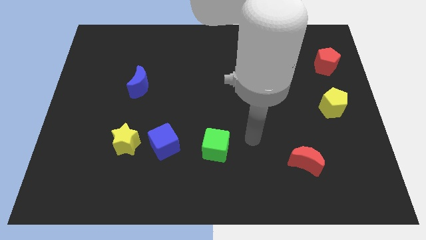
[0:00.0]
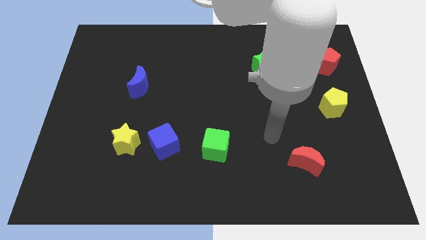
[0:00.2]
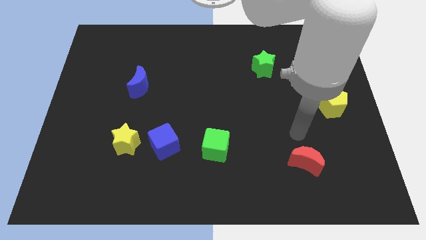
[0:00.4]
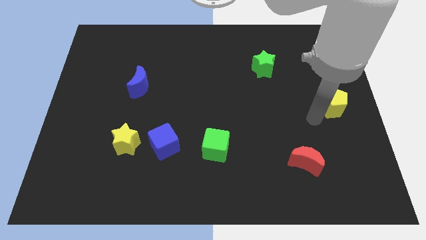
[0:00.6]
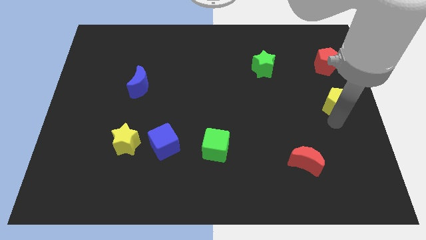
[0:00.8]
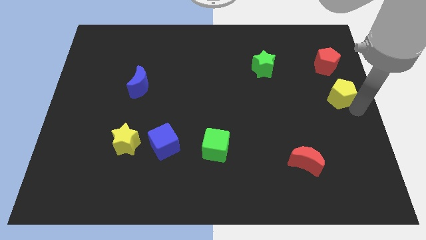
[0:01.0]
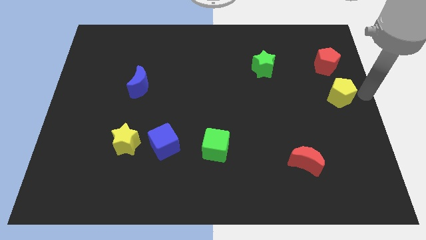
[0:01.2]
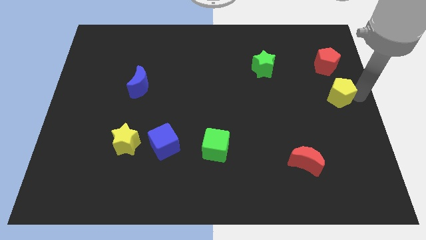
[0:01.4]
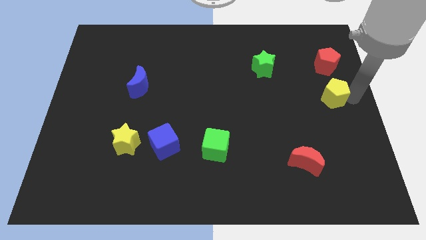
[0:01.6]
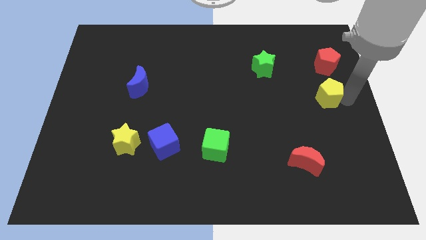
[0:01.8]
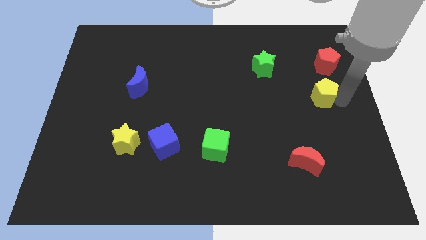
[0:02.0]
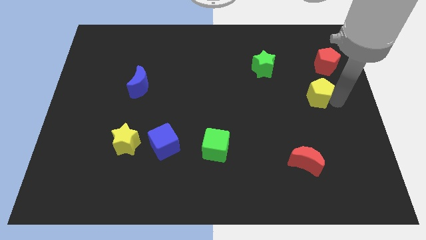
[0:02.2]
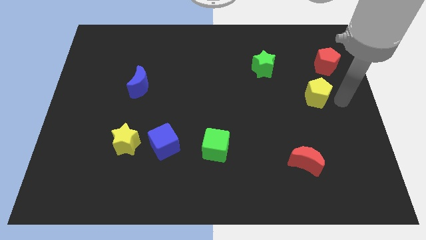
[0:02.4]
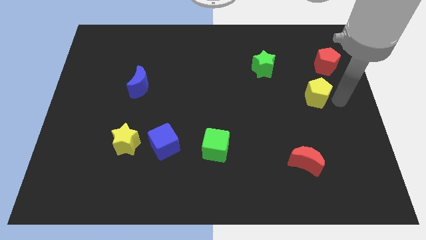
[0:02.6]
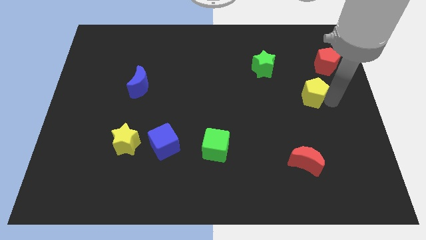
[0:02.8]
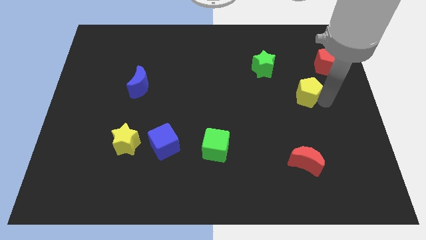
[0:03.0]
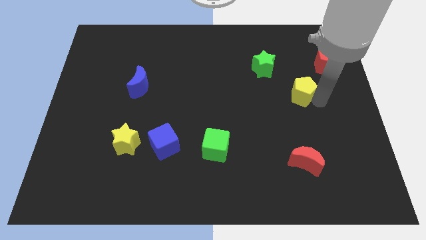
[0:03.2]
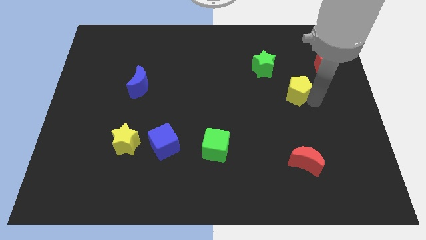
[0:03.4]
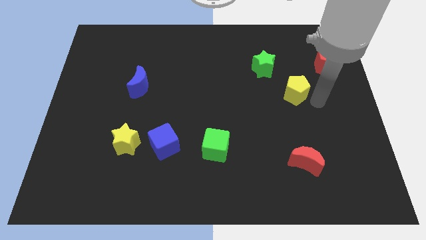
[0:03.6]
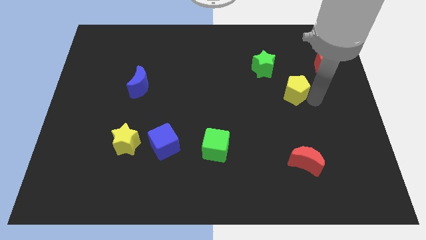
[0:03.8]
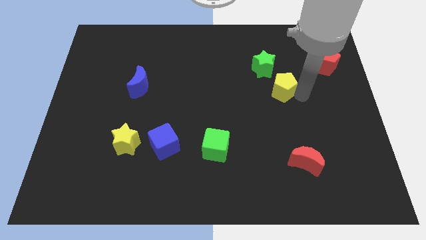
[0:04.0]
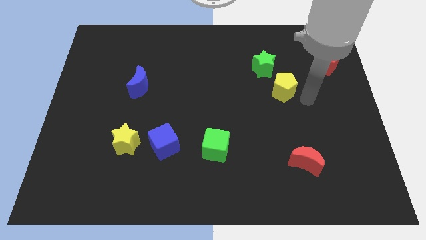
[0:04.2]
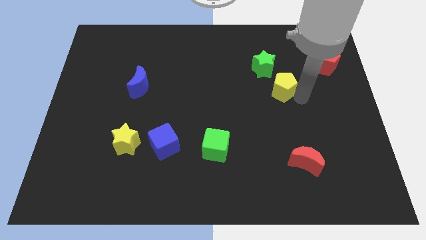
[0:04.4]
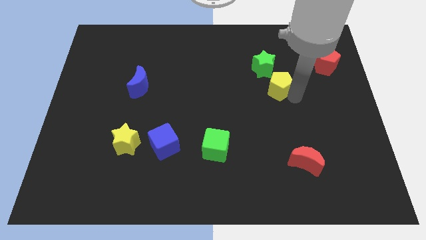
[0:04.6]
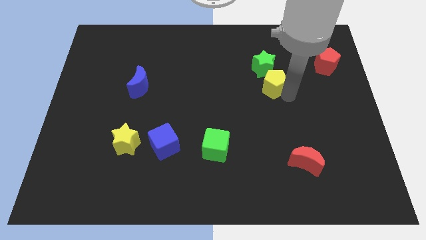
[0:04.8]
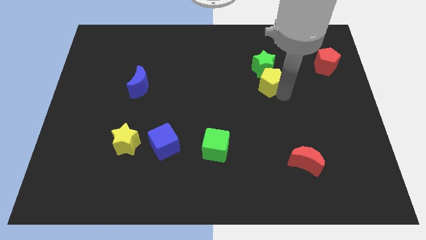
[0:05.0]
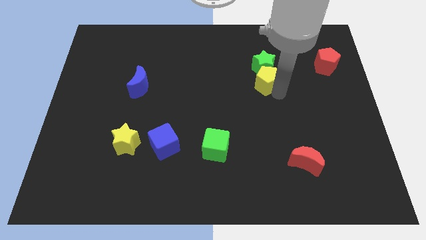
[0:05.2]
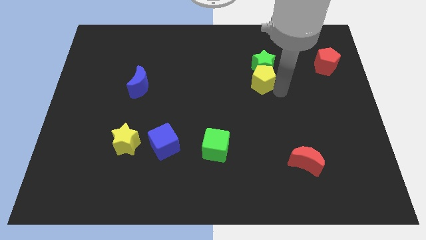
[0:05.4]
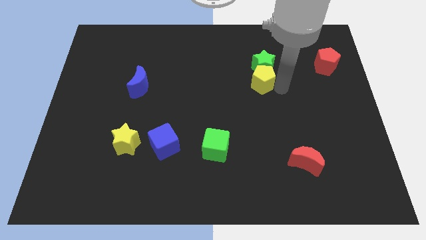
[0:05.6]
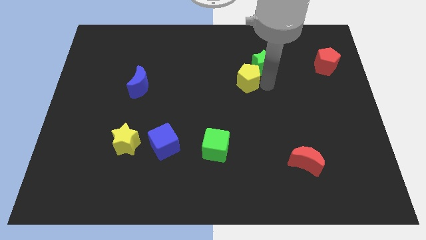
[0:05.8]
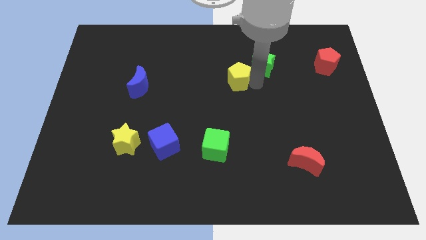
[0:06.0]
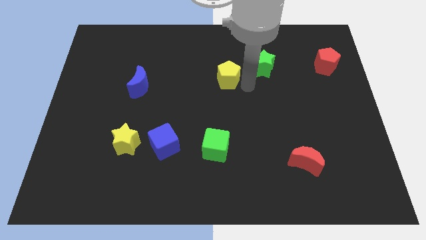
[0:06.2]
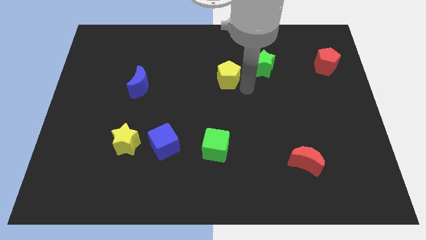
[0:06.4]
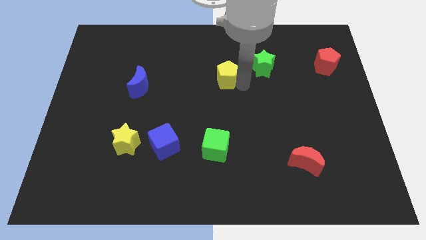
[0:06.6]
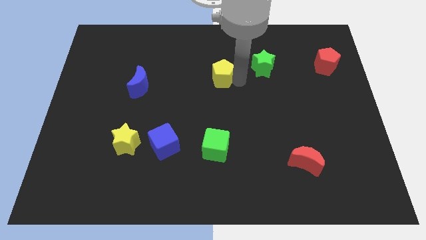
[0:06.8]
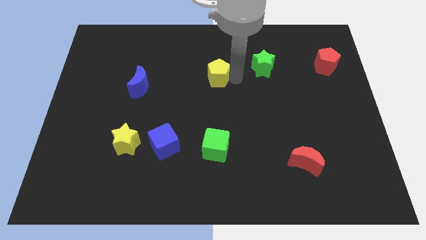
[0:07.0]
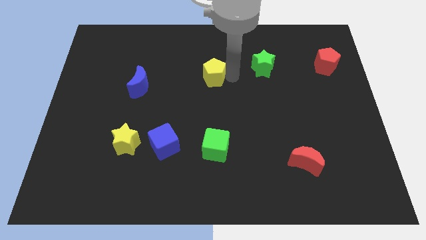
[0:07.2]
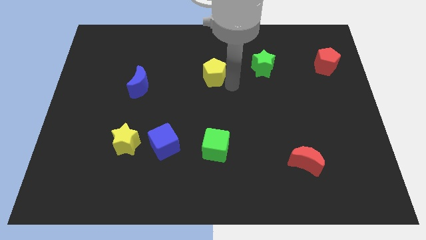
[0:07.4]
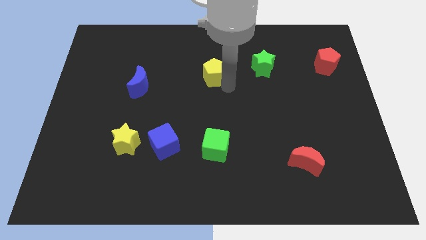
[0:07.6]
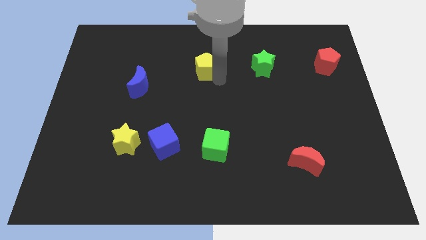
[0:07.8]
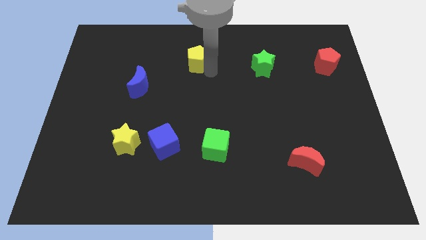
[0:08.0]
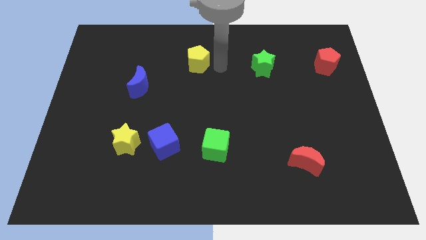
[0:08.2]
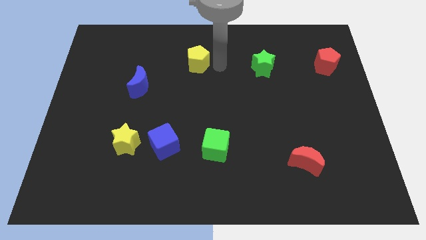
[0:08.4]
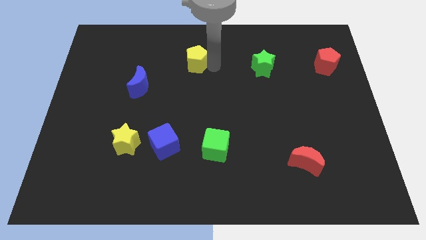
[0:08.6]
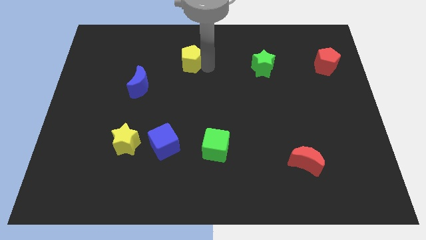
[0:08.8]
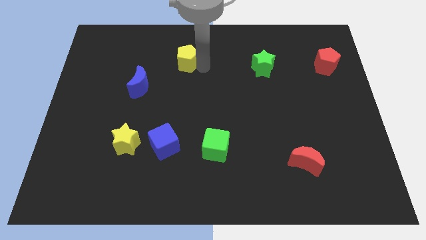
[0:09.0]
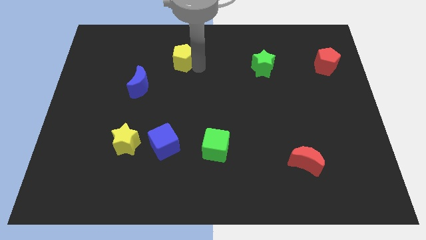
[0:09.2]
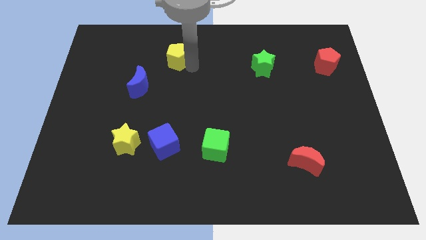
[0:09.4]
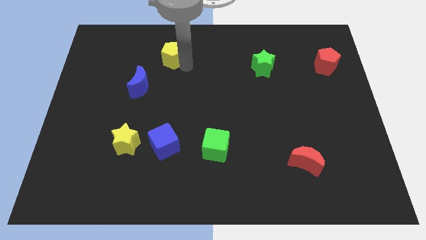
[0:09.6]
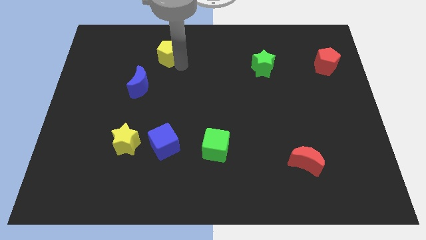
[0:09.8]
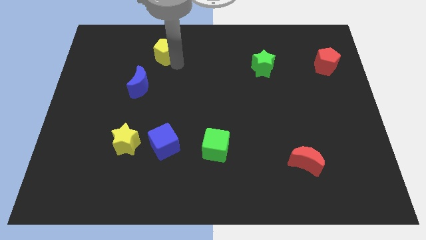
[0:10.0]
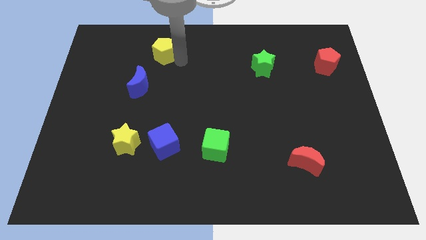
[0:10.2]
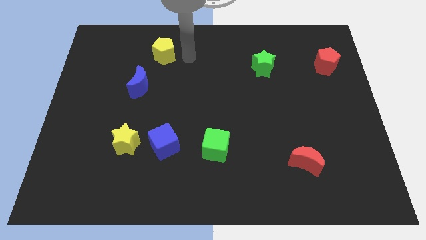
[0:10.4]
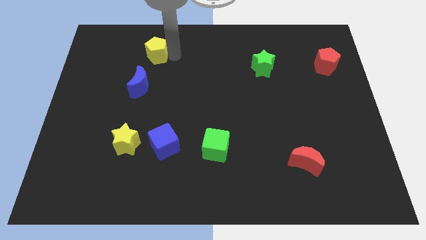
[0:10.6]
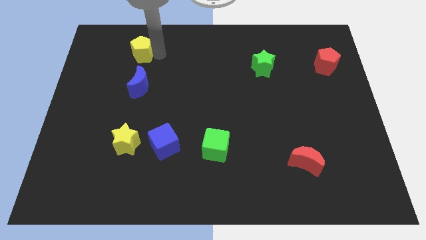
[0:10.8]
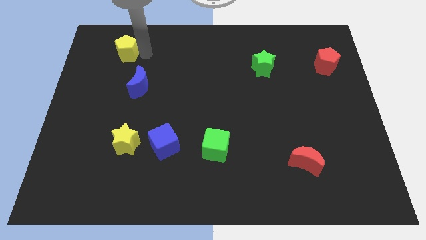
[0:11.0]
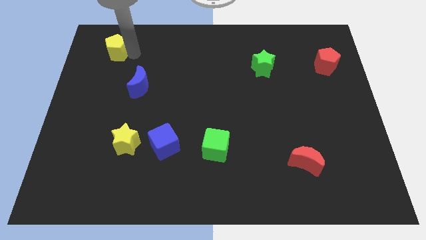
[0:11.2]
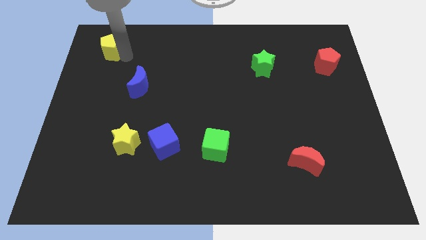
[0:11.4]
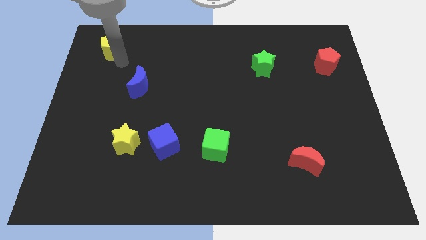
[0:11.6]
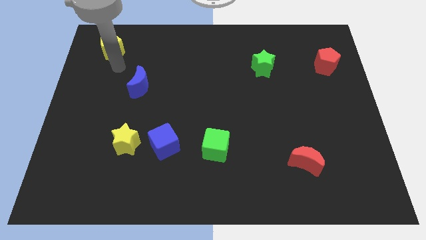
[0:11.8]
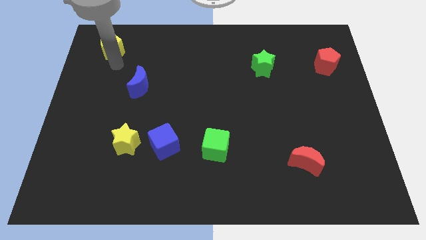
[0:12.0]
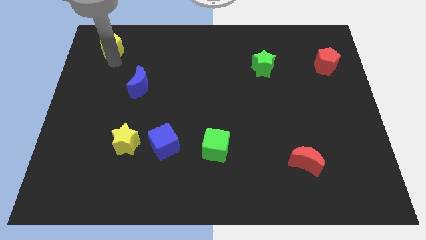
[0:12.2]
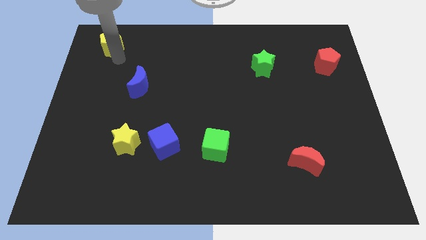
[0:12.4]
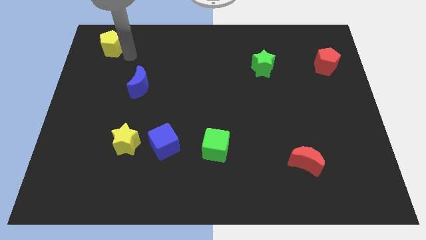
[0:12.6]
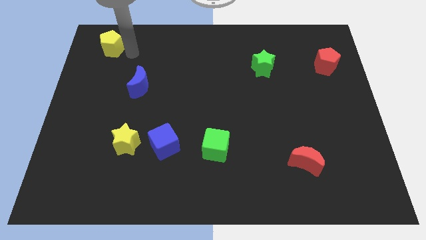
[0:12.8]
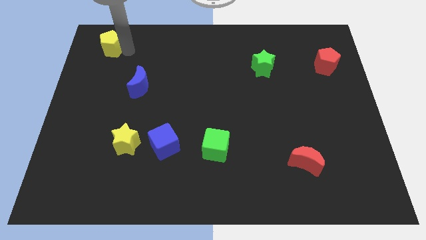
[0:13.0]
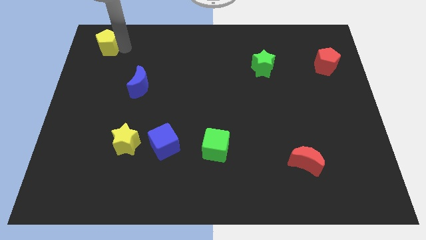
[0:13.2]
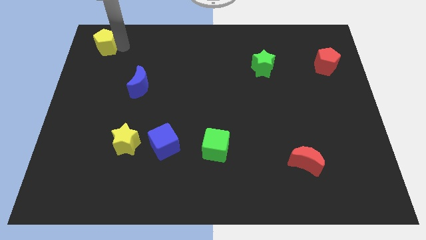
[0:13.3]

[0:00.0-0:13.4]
slide the yellow pentagon to the top left of the board
